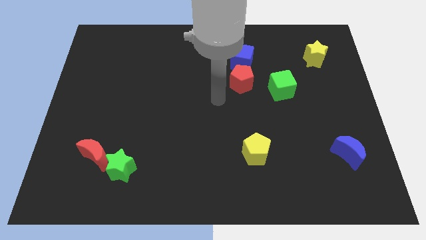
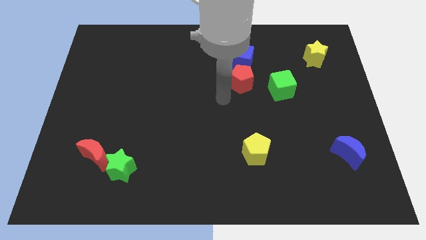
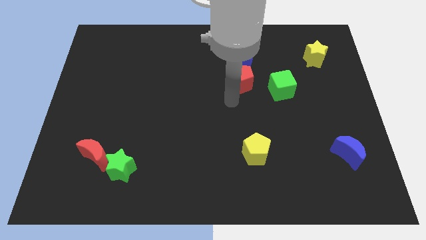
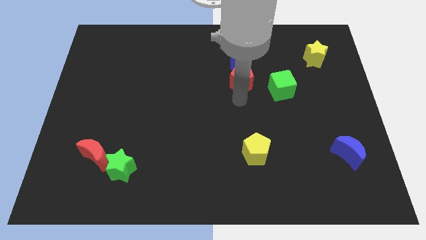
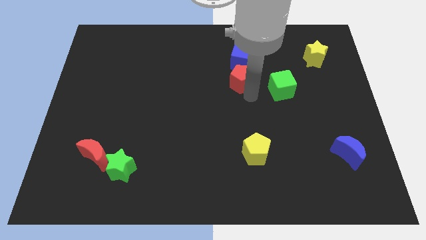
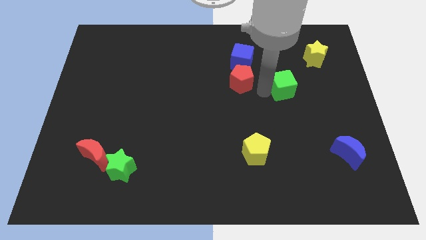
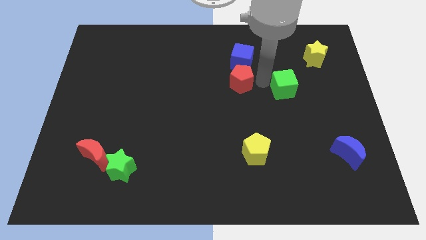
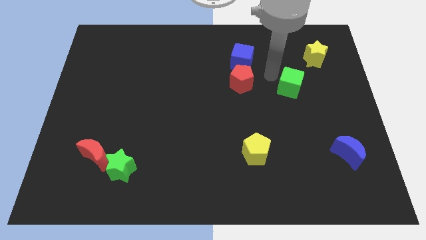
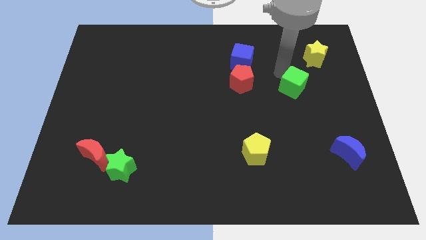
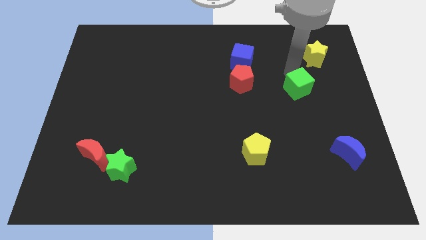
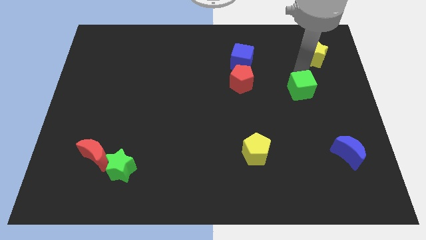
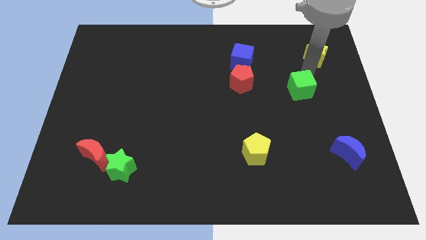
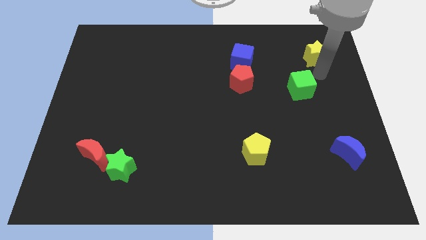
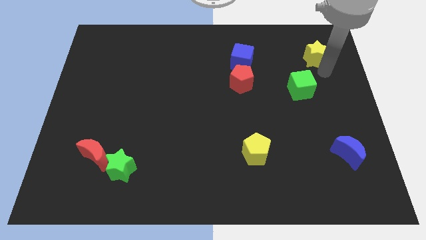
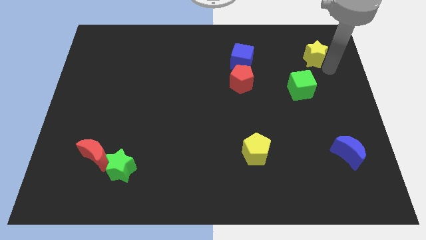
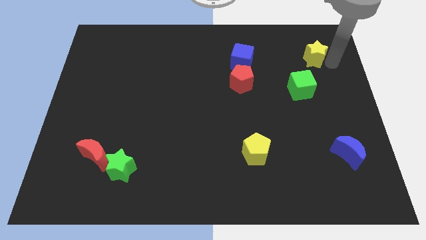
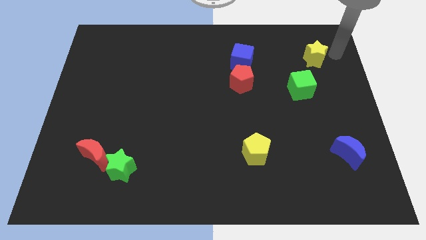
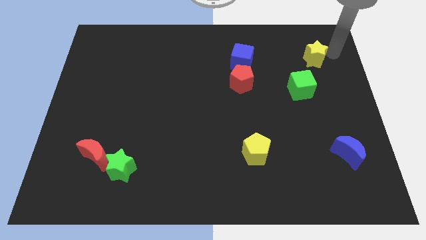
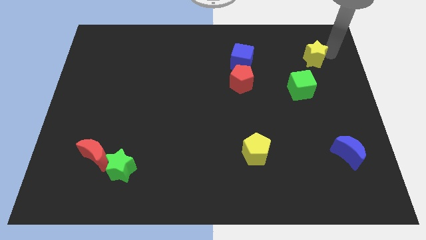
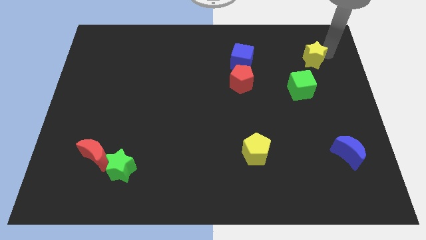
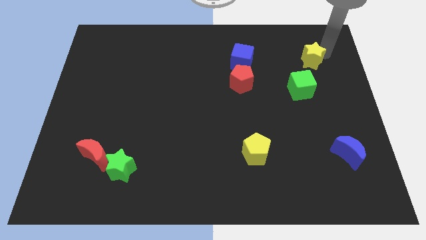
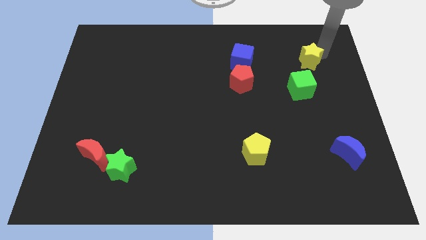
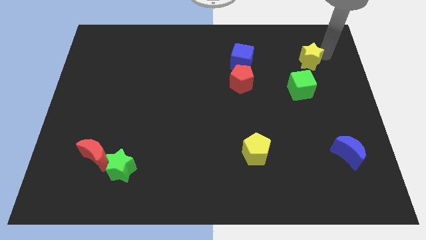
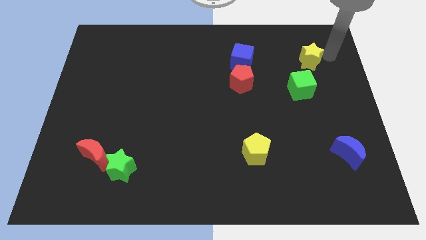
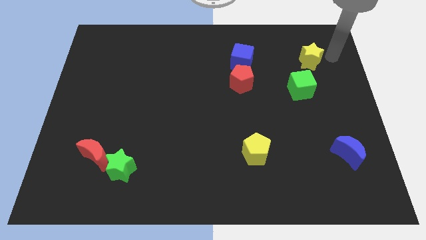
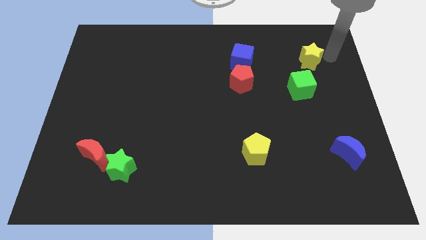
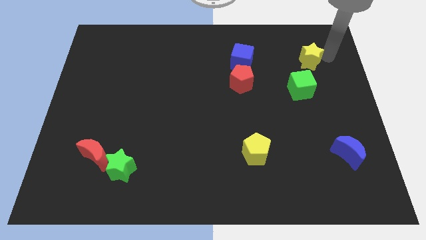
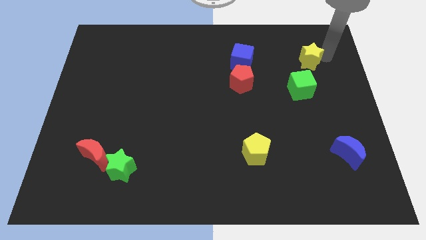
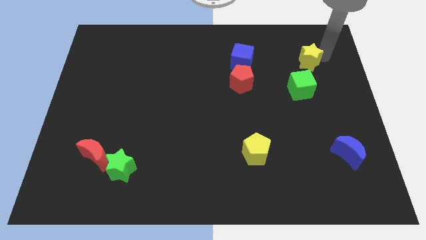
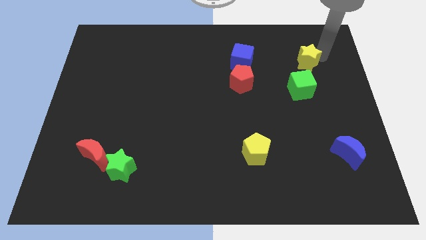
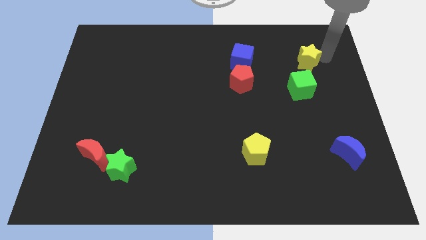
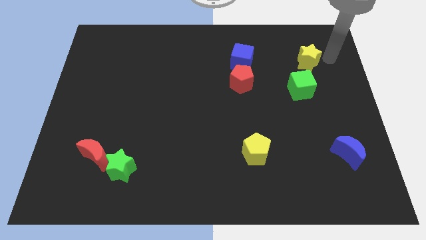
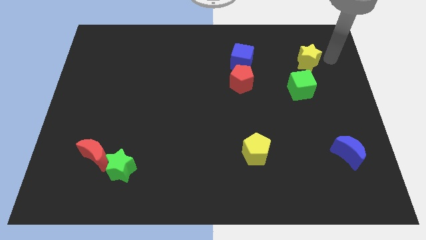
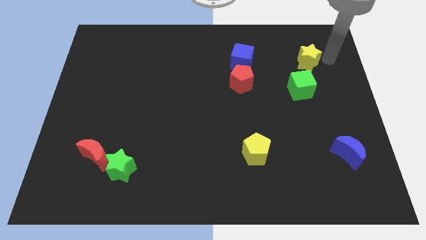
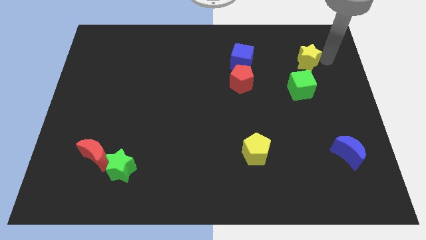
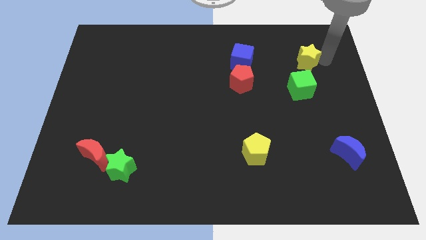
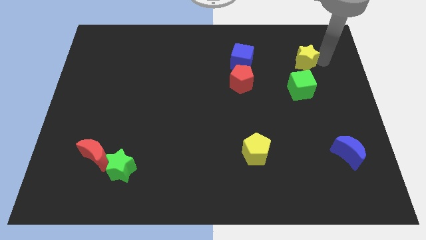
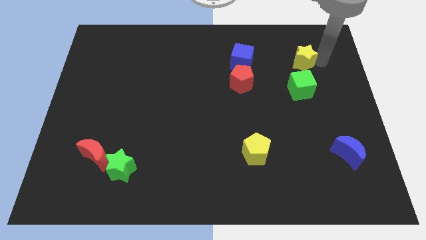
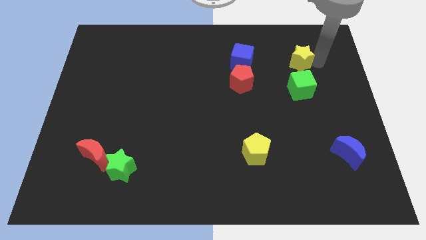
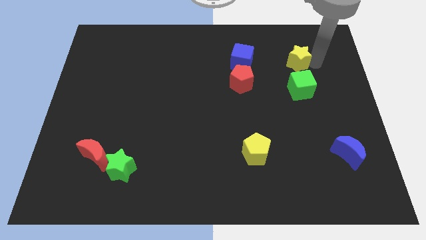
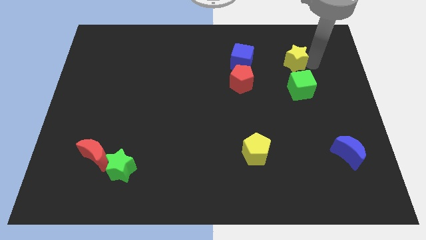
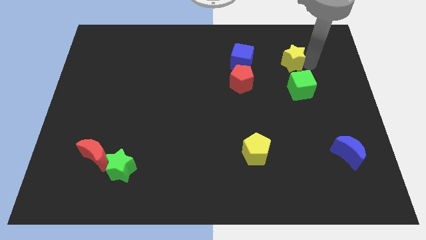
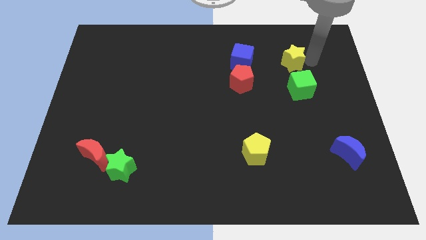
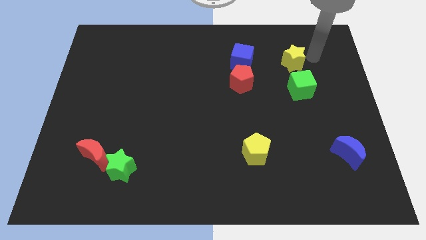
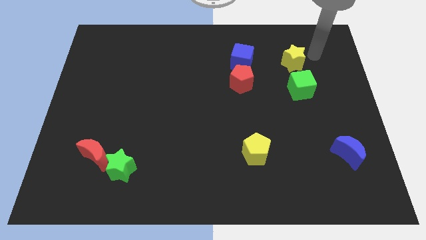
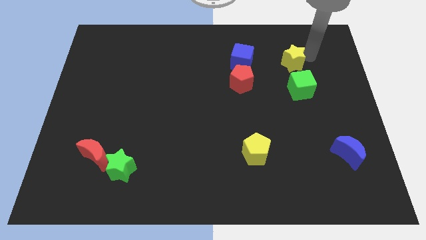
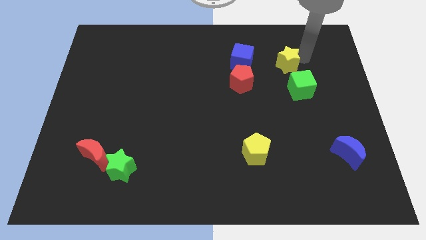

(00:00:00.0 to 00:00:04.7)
slide the yellow star to the top left of the green cube

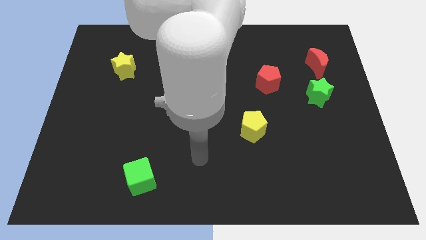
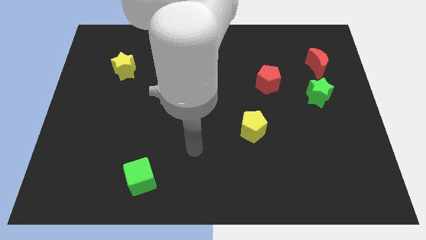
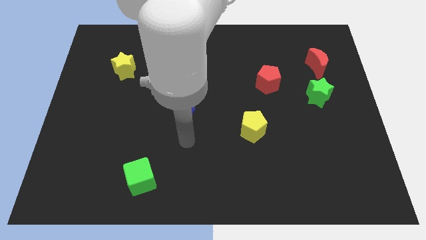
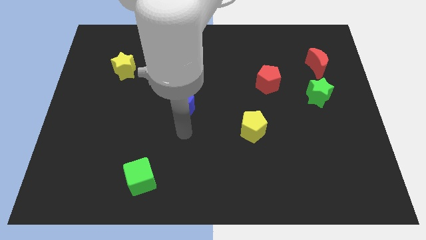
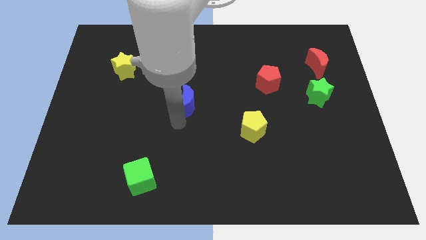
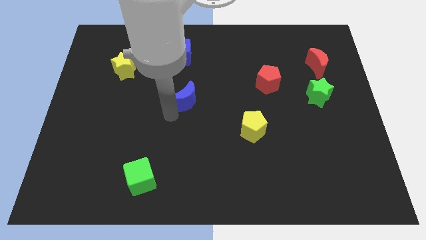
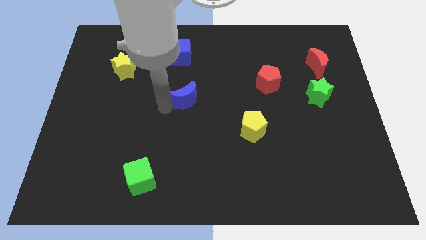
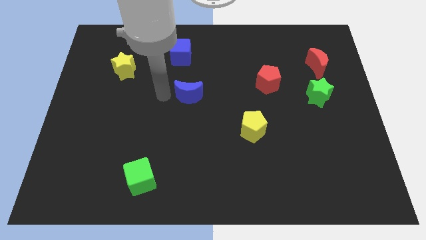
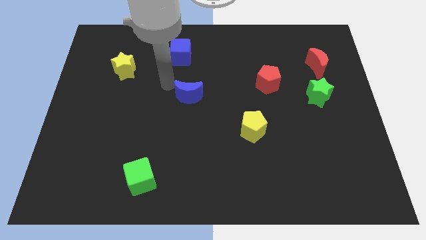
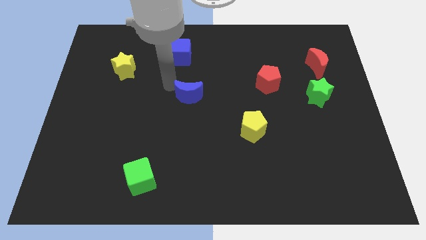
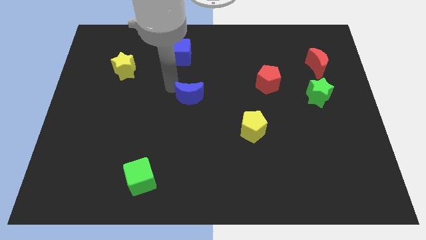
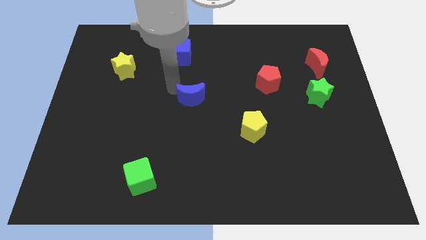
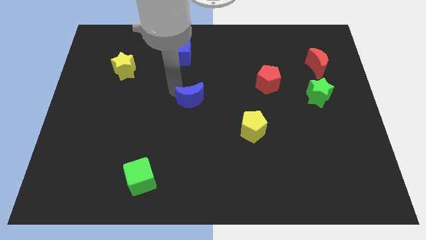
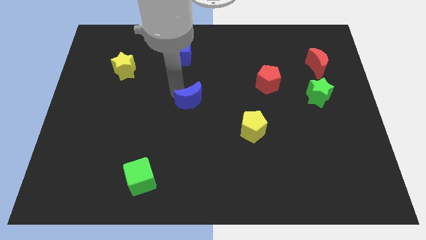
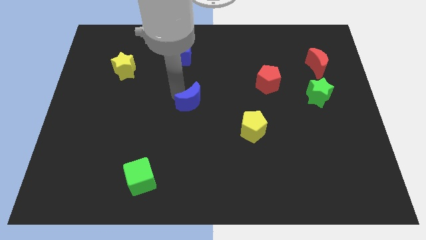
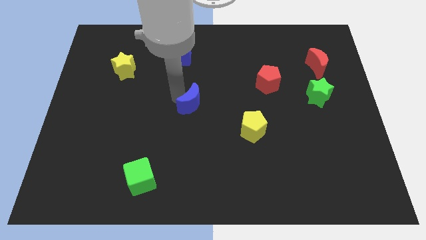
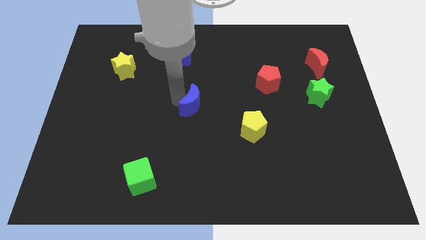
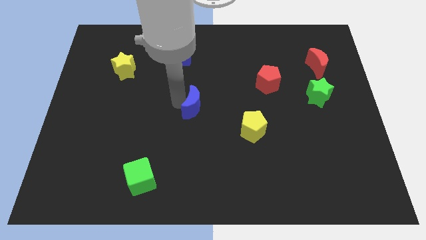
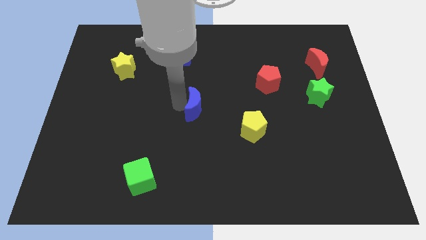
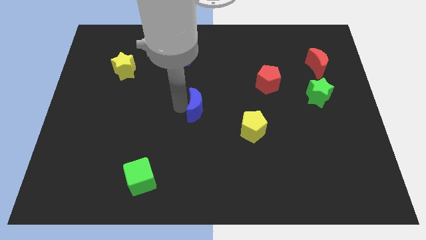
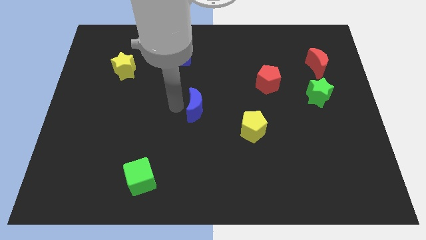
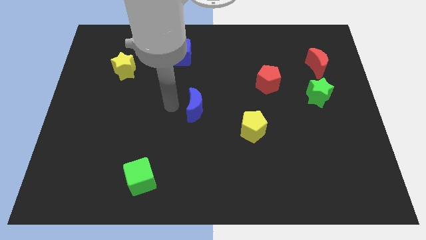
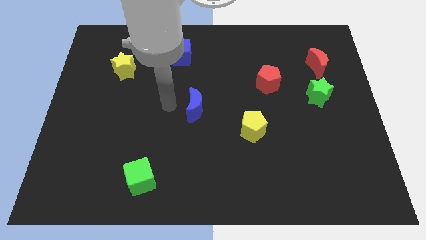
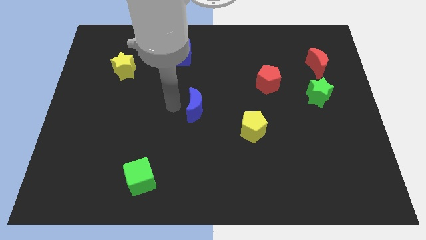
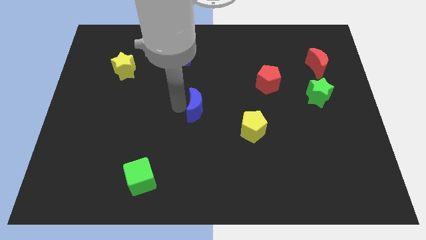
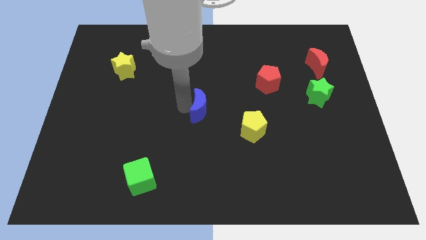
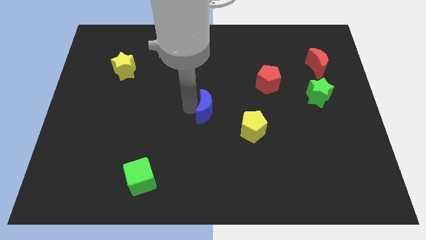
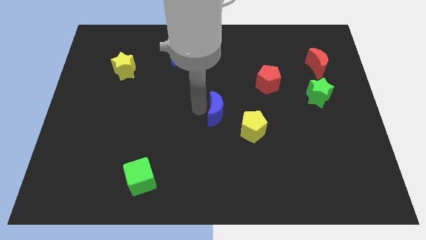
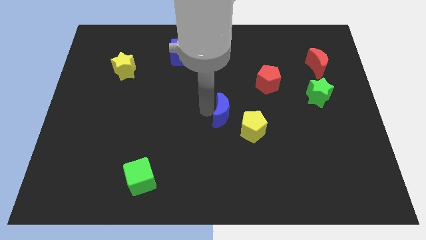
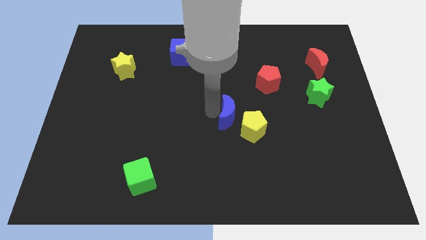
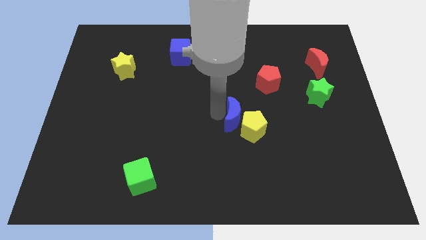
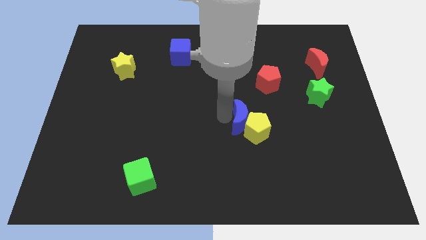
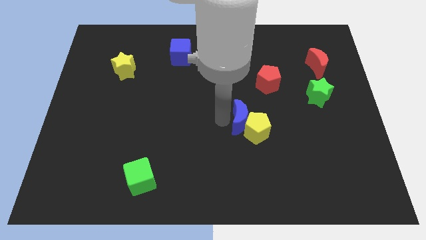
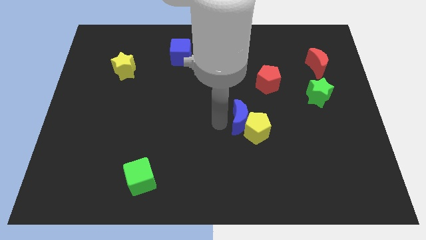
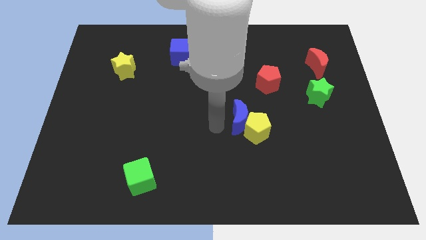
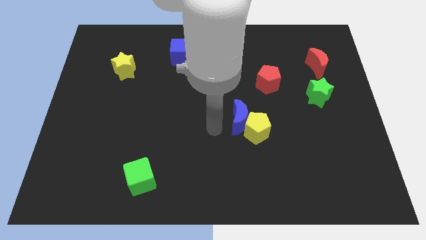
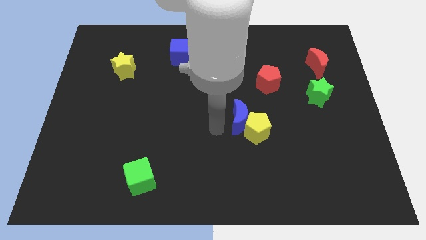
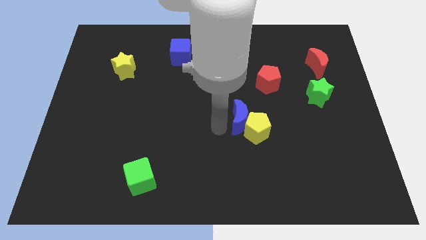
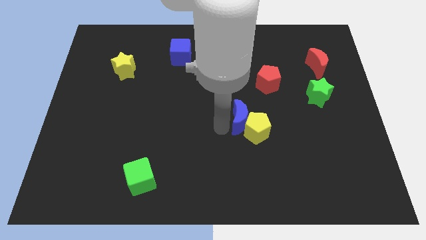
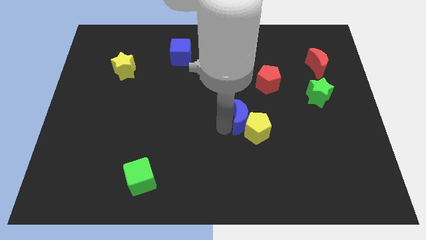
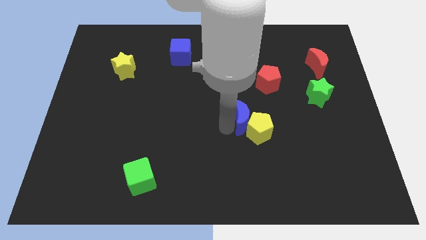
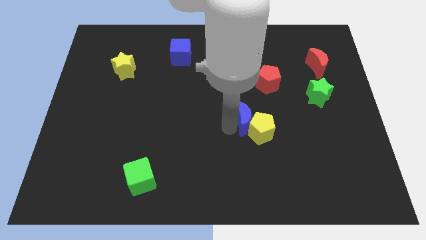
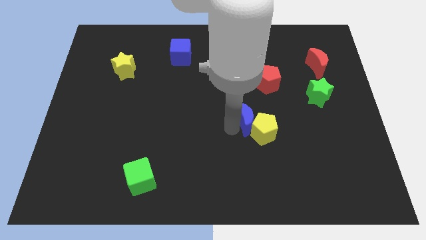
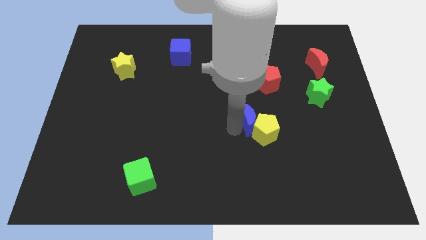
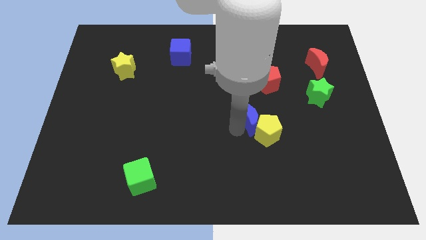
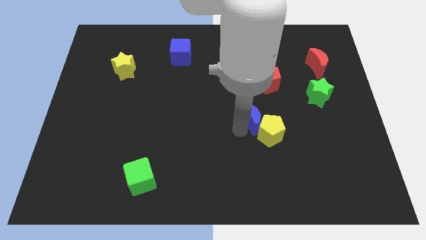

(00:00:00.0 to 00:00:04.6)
slide the blue moon below the red pentagon
